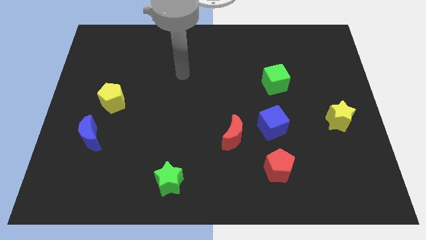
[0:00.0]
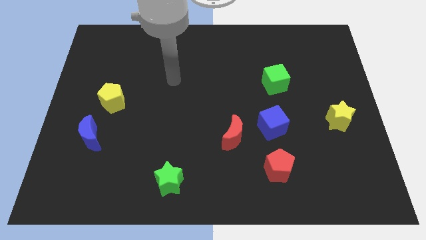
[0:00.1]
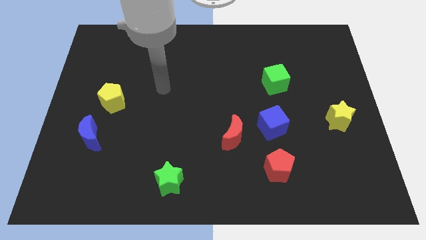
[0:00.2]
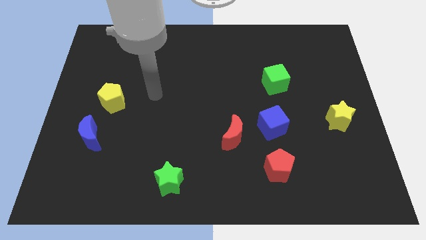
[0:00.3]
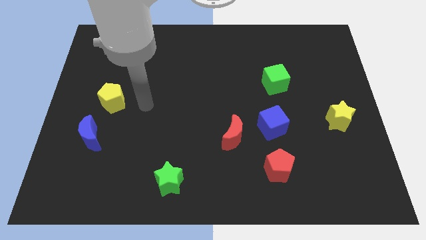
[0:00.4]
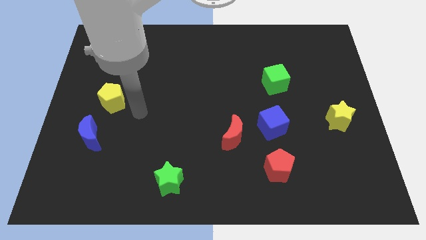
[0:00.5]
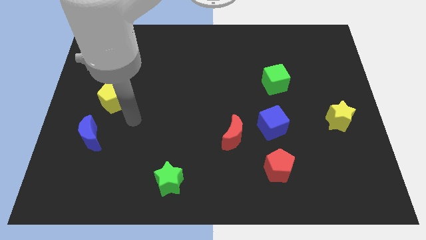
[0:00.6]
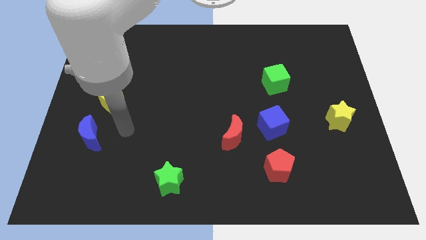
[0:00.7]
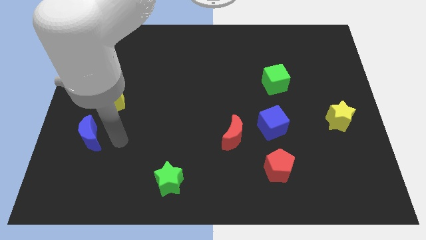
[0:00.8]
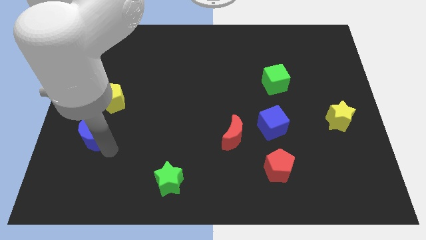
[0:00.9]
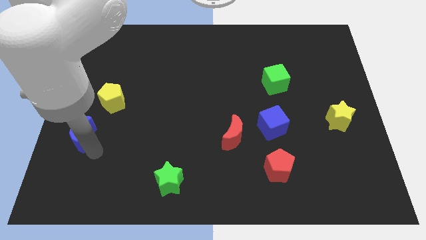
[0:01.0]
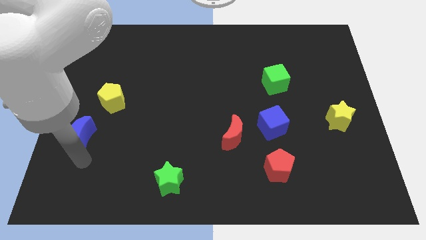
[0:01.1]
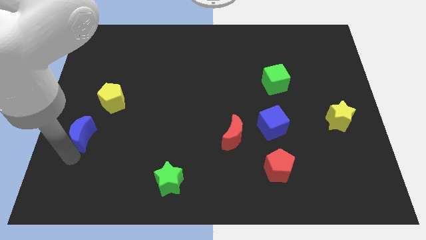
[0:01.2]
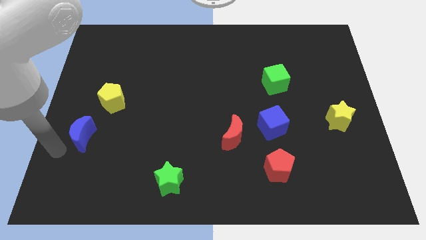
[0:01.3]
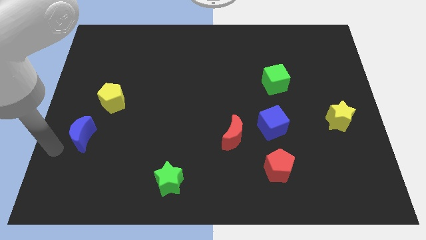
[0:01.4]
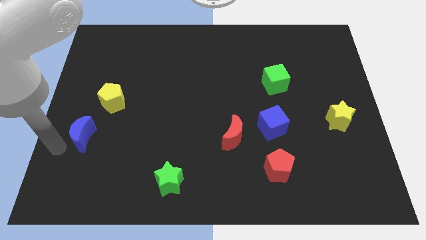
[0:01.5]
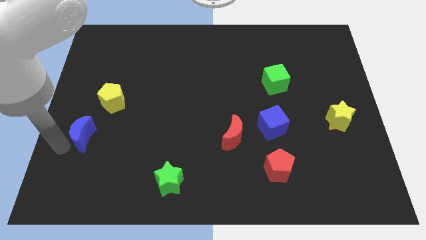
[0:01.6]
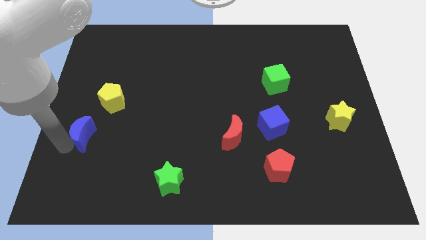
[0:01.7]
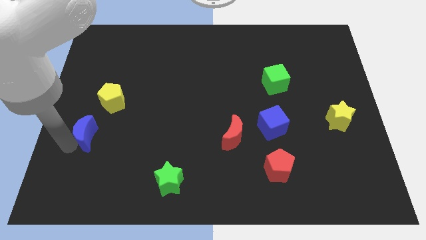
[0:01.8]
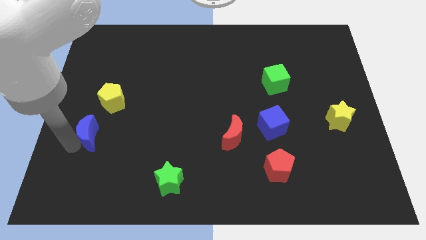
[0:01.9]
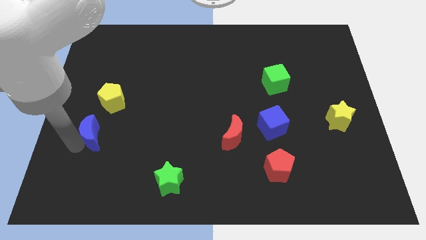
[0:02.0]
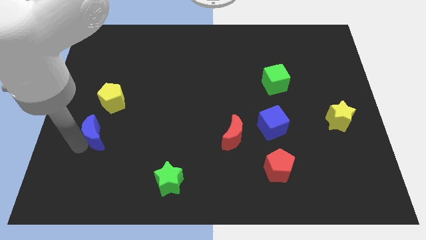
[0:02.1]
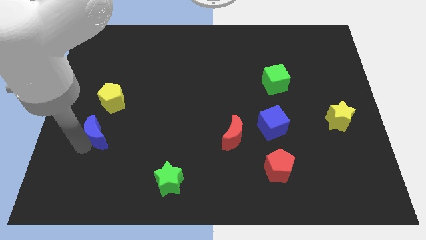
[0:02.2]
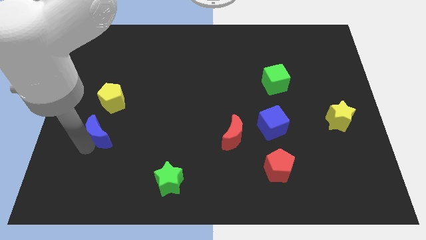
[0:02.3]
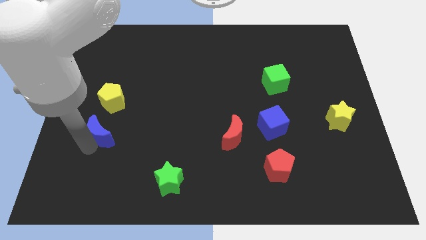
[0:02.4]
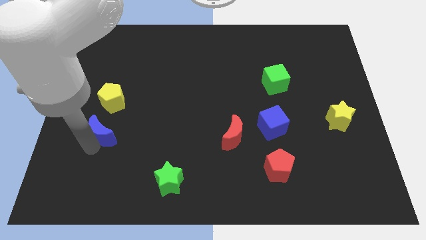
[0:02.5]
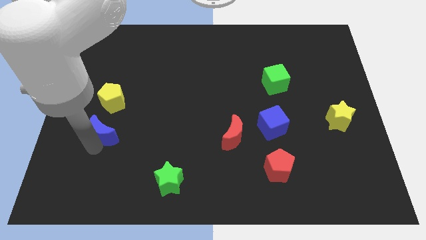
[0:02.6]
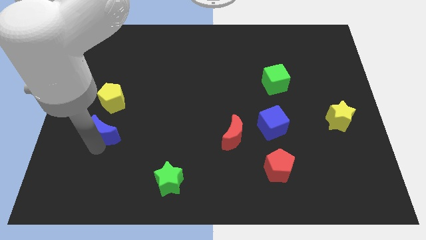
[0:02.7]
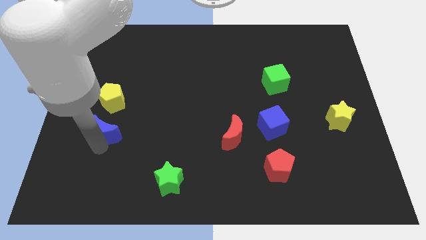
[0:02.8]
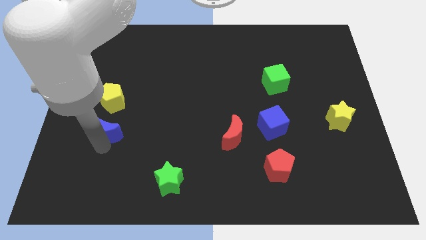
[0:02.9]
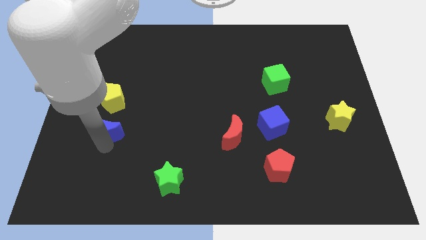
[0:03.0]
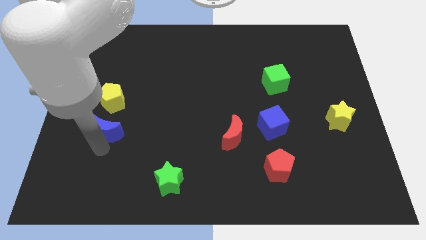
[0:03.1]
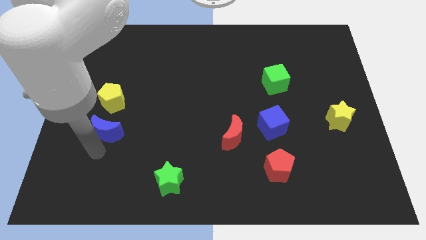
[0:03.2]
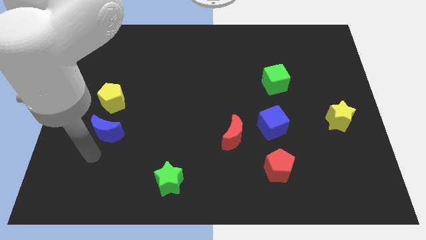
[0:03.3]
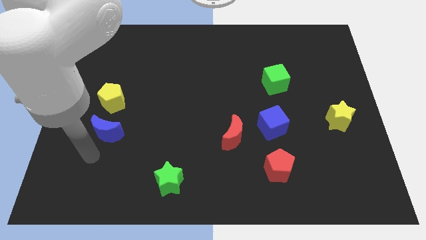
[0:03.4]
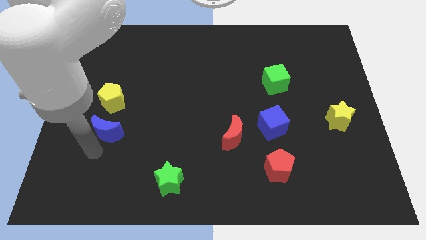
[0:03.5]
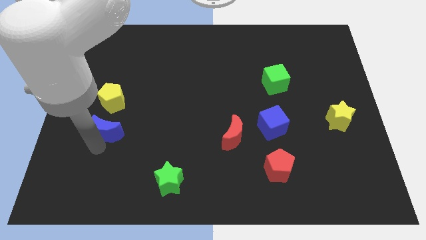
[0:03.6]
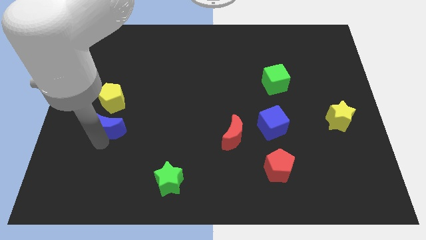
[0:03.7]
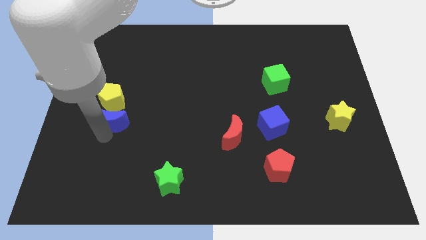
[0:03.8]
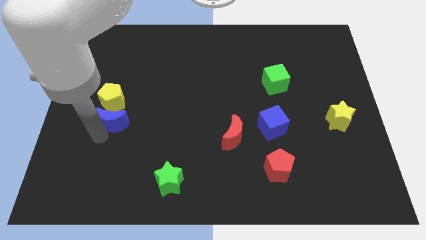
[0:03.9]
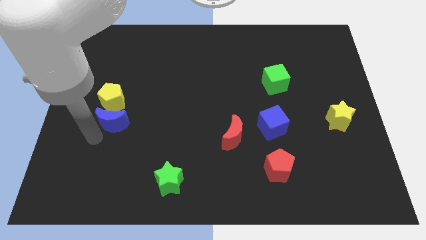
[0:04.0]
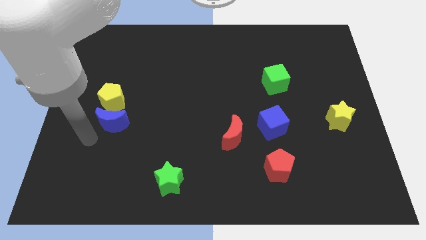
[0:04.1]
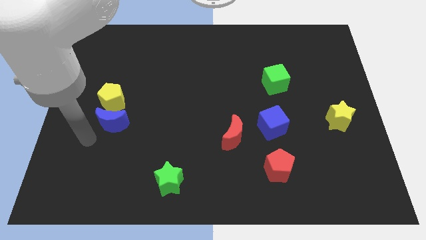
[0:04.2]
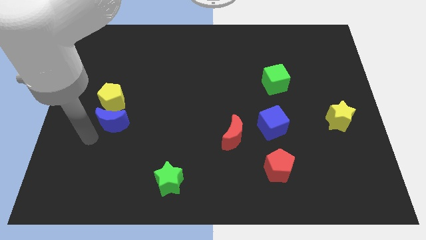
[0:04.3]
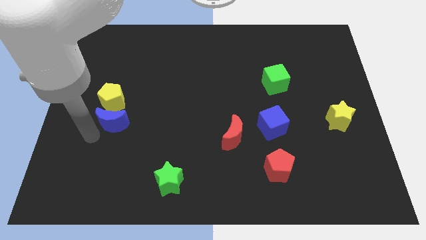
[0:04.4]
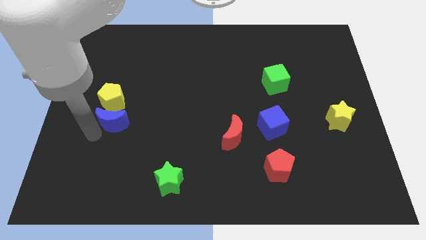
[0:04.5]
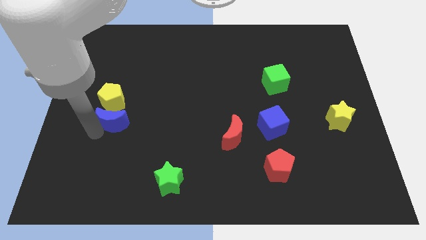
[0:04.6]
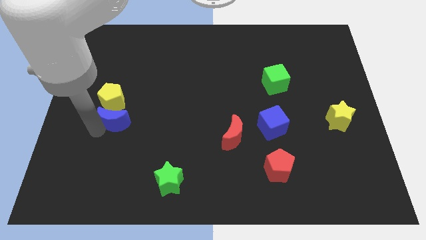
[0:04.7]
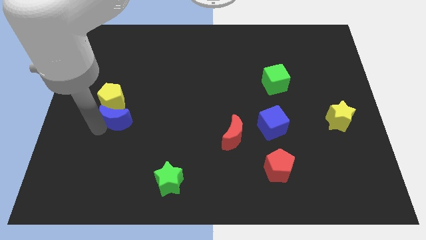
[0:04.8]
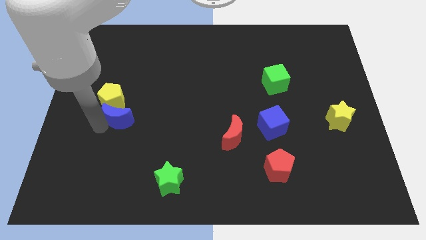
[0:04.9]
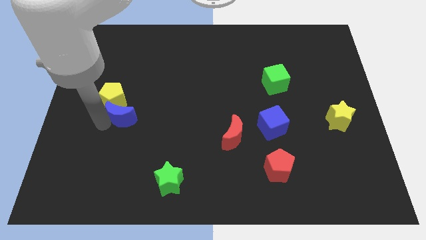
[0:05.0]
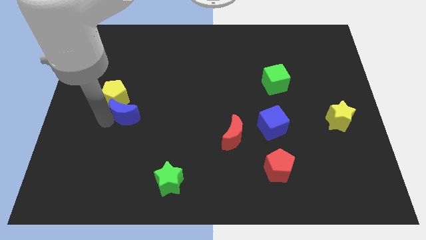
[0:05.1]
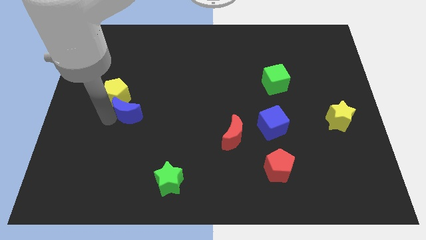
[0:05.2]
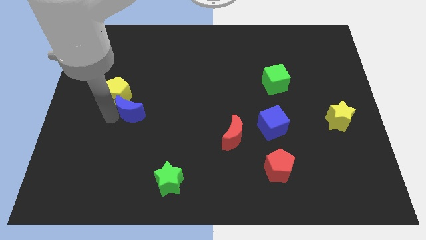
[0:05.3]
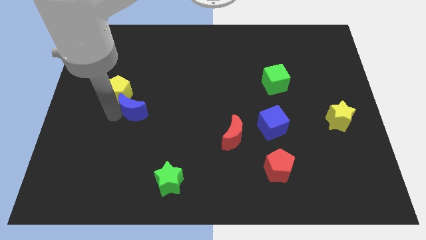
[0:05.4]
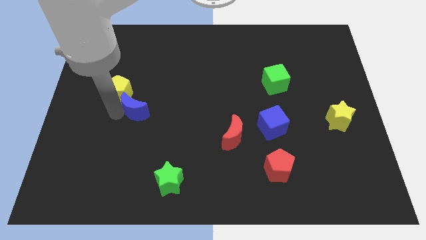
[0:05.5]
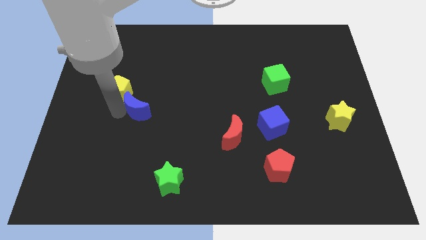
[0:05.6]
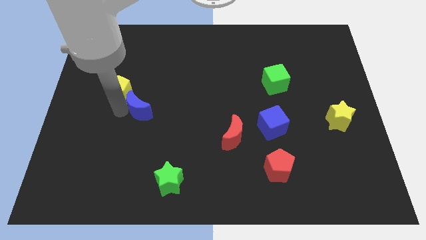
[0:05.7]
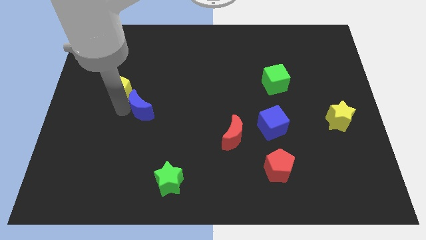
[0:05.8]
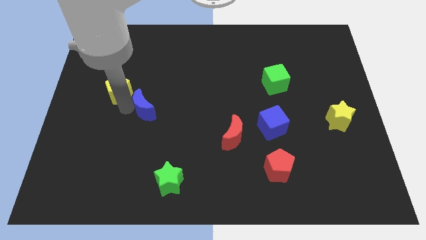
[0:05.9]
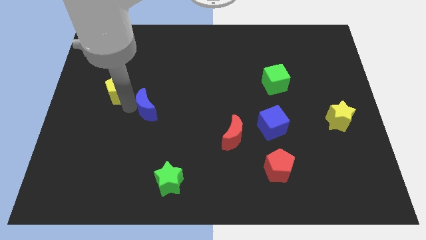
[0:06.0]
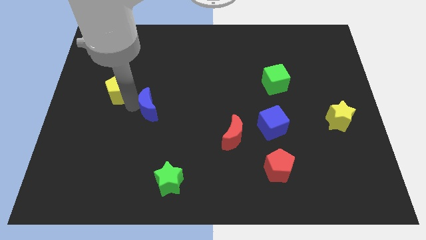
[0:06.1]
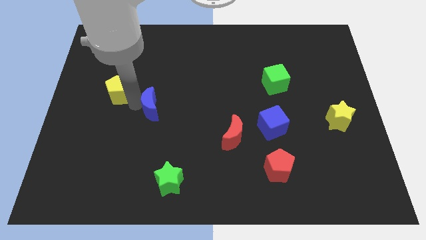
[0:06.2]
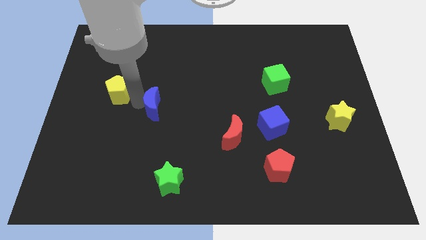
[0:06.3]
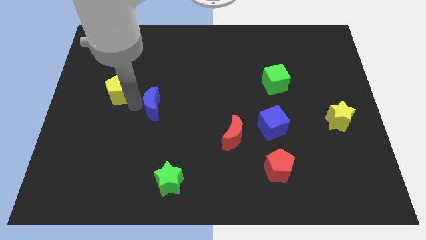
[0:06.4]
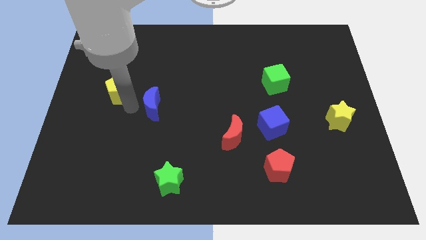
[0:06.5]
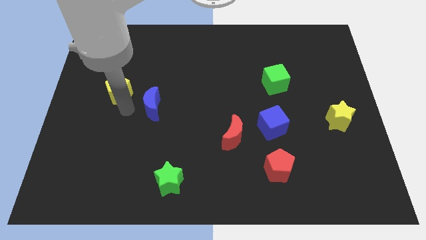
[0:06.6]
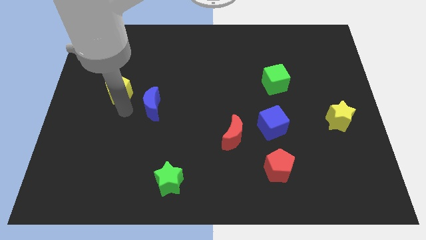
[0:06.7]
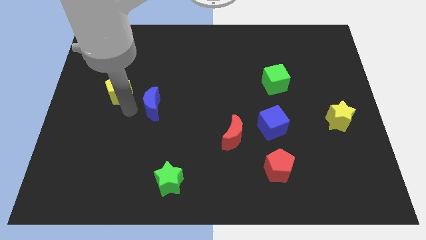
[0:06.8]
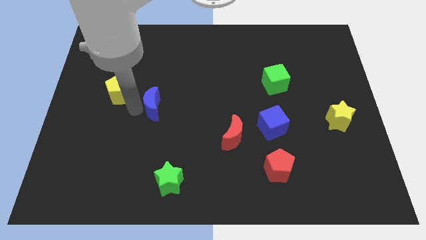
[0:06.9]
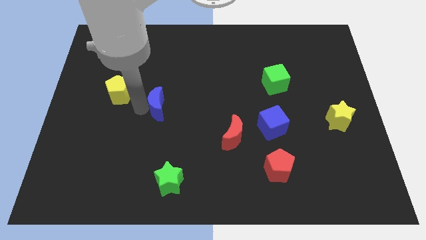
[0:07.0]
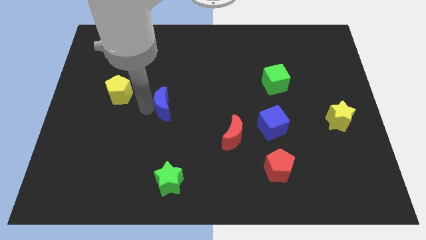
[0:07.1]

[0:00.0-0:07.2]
slide the blue moon to the center of the board
